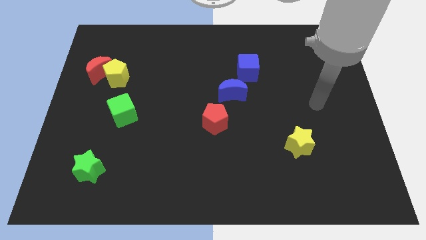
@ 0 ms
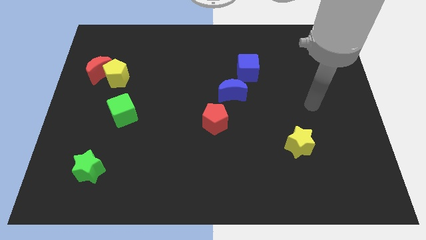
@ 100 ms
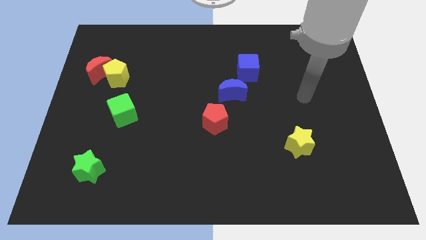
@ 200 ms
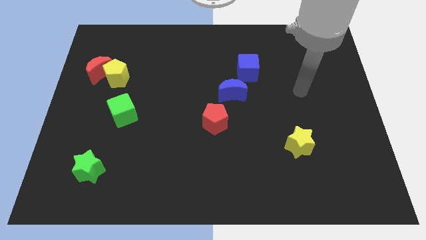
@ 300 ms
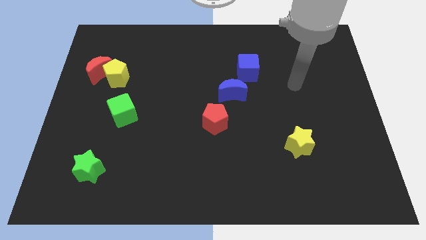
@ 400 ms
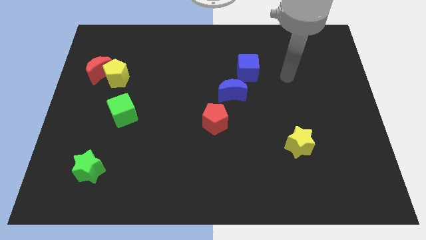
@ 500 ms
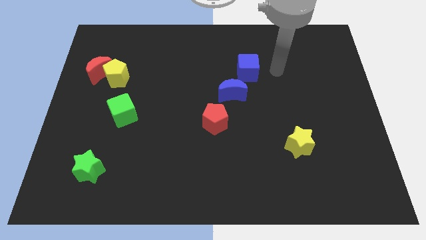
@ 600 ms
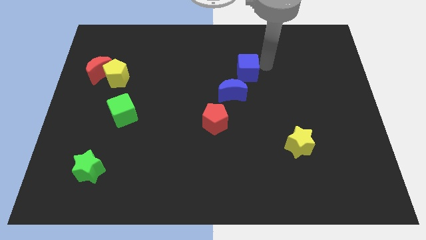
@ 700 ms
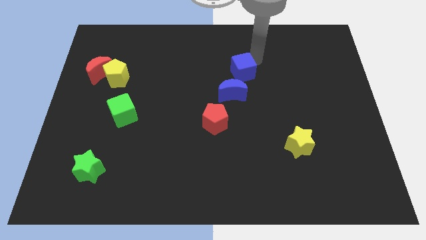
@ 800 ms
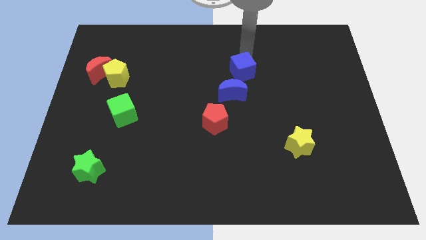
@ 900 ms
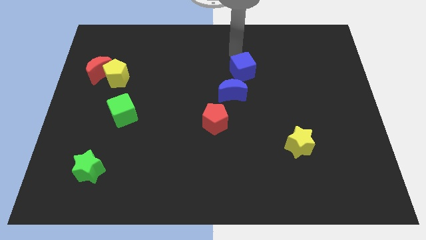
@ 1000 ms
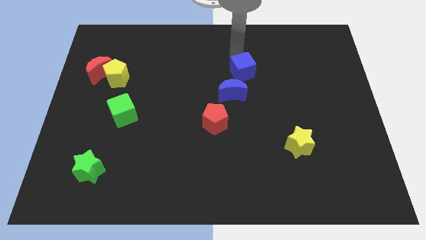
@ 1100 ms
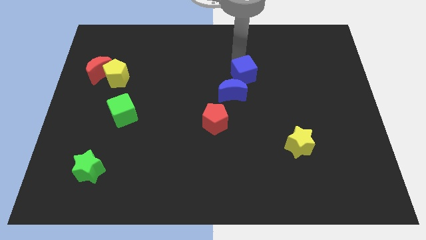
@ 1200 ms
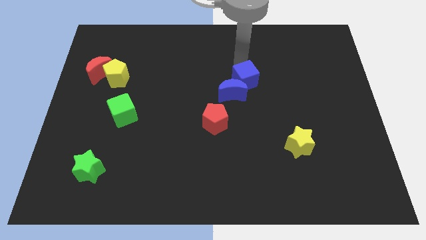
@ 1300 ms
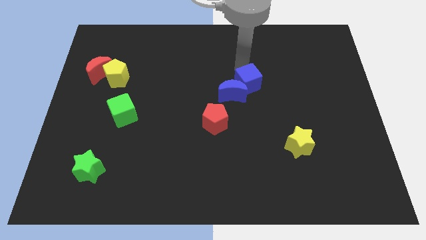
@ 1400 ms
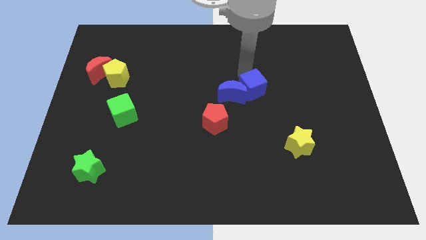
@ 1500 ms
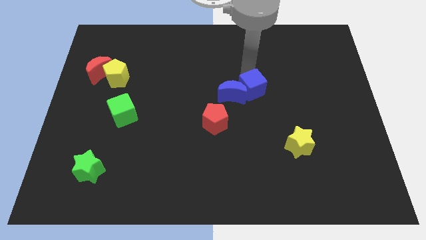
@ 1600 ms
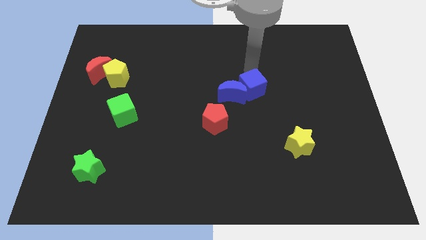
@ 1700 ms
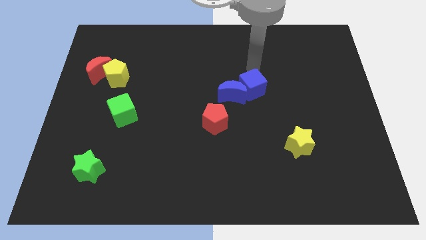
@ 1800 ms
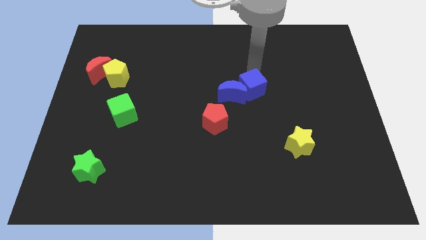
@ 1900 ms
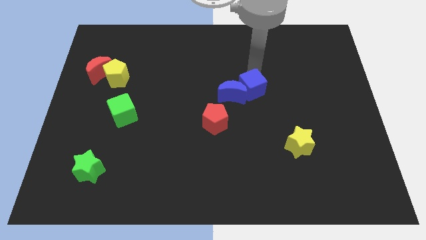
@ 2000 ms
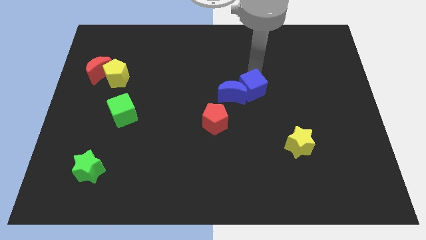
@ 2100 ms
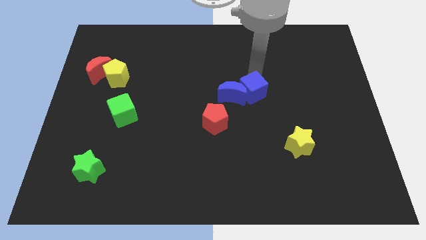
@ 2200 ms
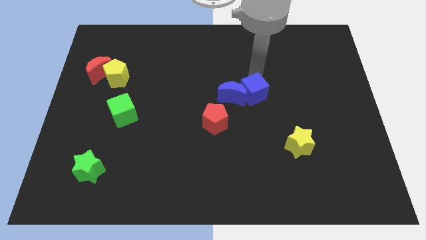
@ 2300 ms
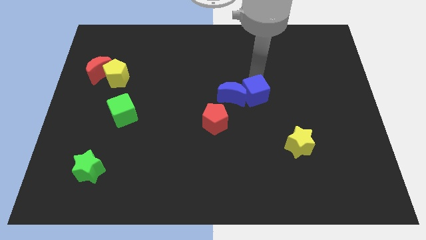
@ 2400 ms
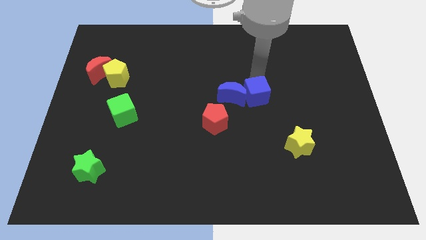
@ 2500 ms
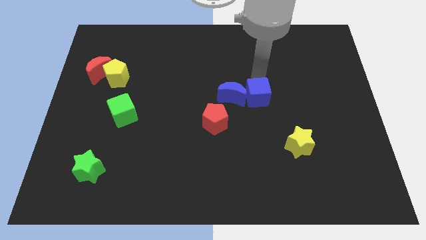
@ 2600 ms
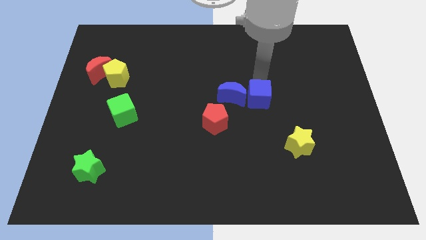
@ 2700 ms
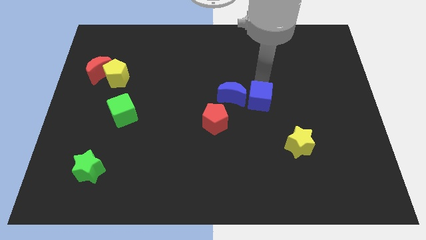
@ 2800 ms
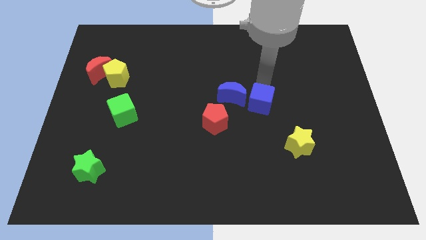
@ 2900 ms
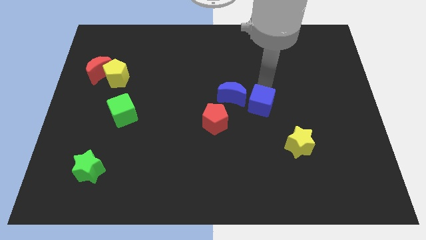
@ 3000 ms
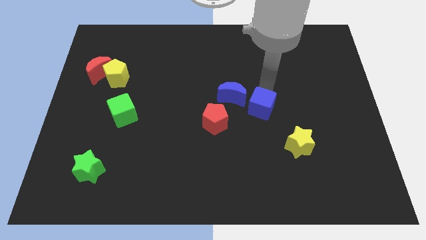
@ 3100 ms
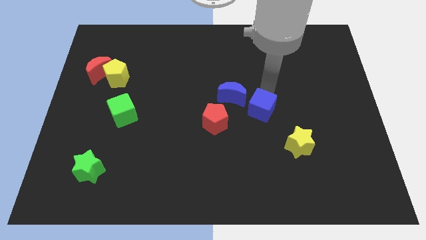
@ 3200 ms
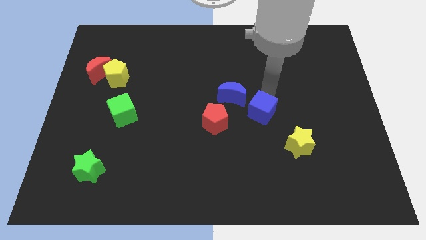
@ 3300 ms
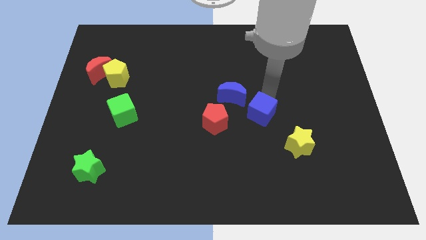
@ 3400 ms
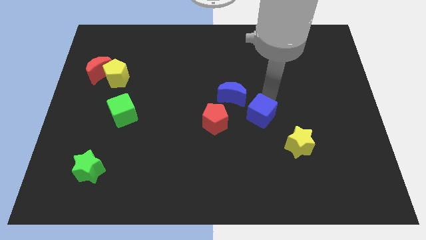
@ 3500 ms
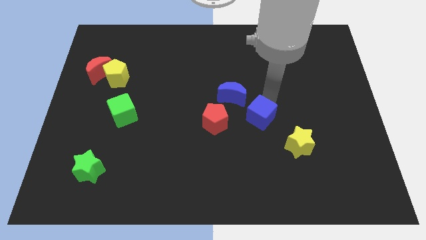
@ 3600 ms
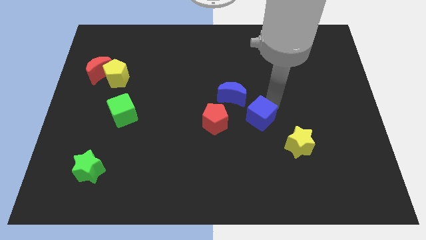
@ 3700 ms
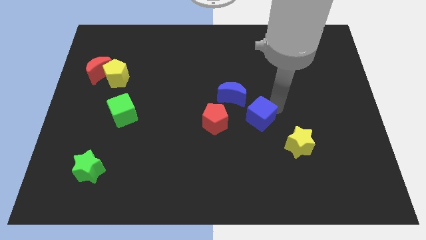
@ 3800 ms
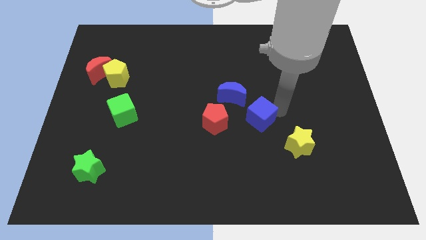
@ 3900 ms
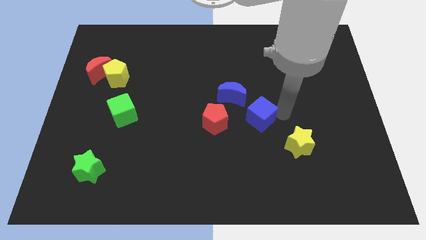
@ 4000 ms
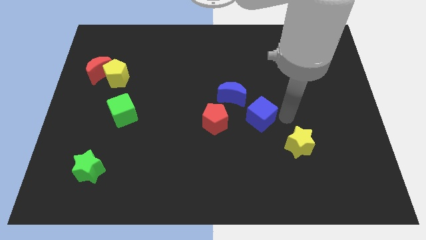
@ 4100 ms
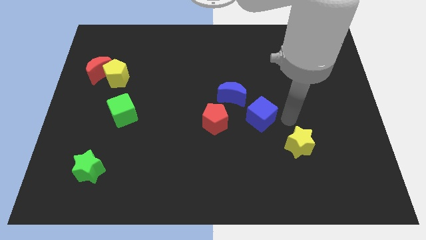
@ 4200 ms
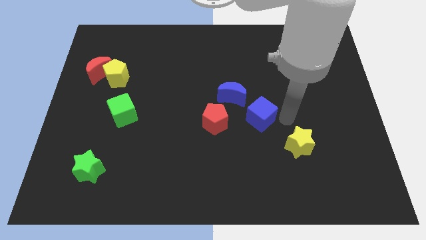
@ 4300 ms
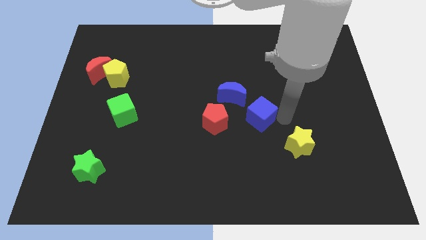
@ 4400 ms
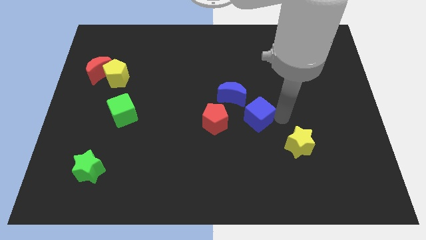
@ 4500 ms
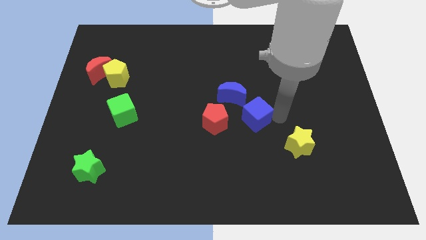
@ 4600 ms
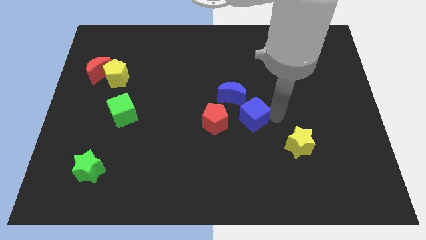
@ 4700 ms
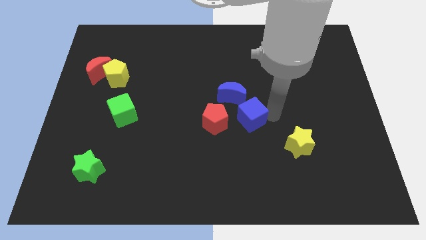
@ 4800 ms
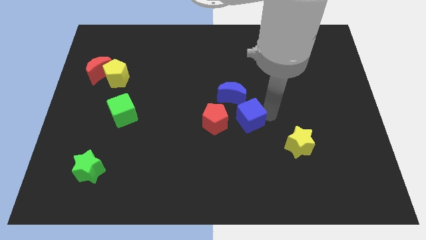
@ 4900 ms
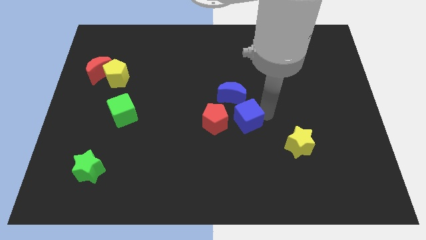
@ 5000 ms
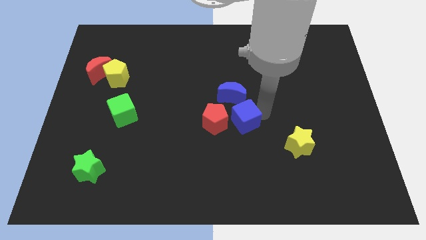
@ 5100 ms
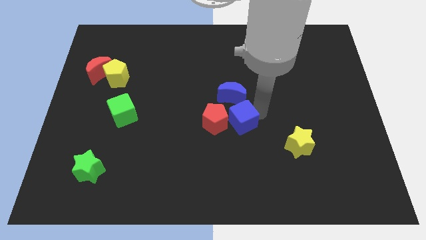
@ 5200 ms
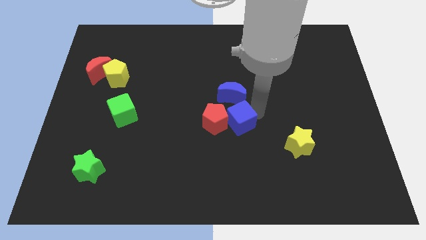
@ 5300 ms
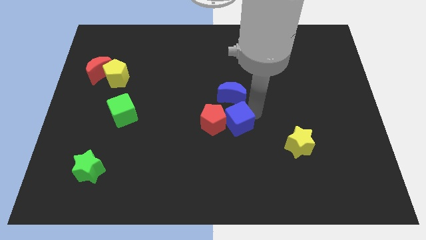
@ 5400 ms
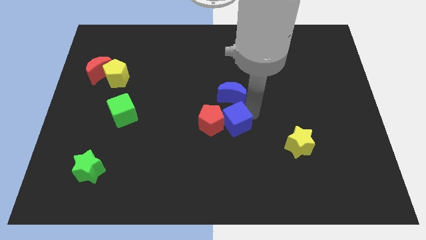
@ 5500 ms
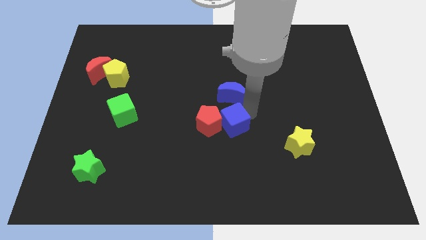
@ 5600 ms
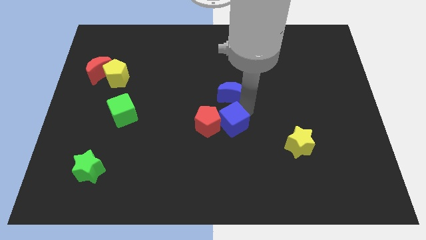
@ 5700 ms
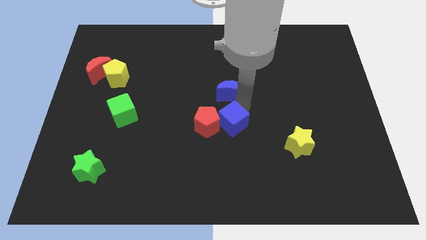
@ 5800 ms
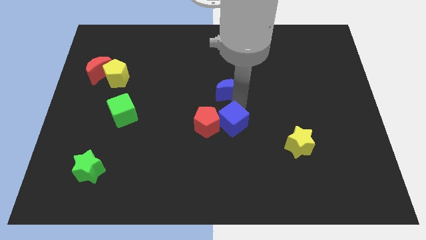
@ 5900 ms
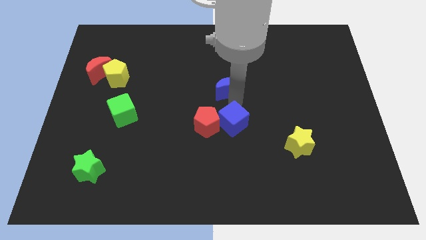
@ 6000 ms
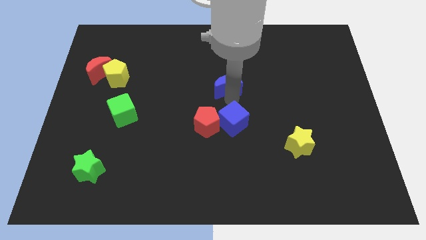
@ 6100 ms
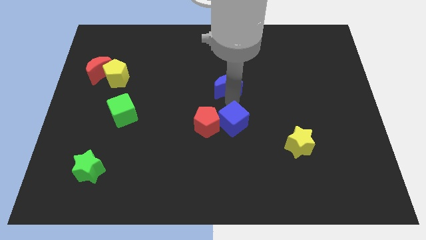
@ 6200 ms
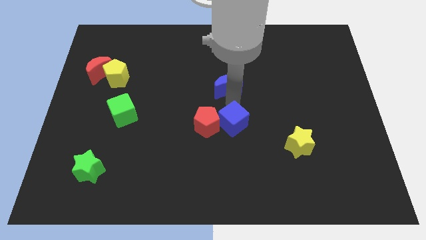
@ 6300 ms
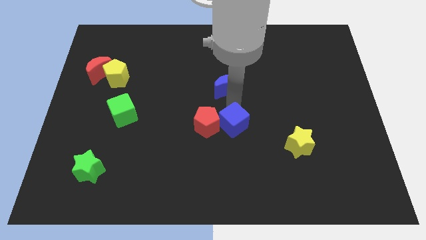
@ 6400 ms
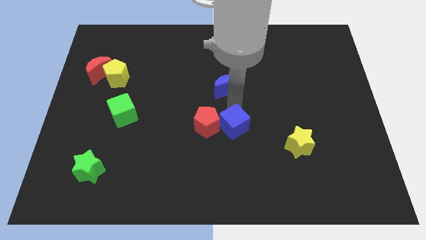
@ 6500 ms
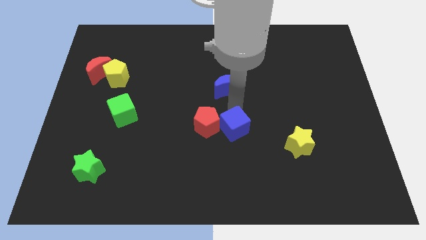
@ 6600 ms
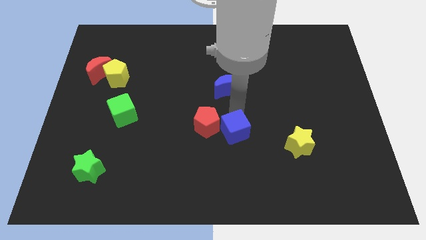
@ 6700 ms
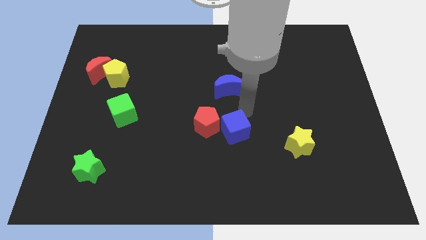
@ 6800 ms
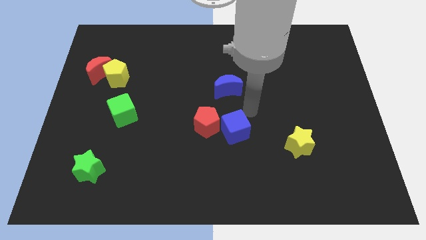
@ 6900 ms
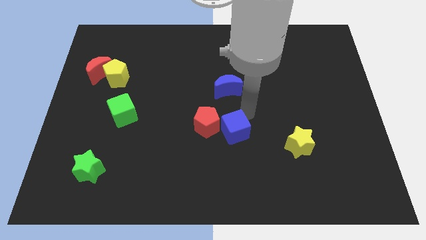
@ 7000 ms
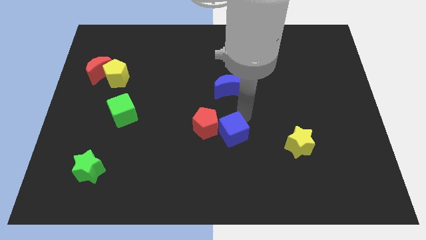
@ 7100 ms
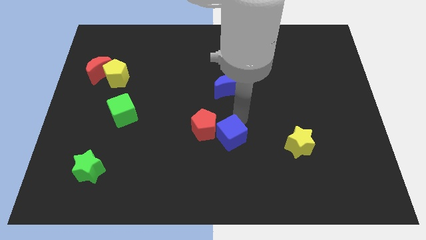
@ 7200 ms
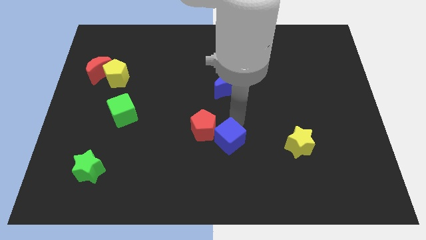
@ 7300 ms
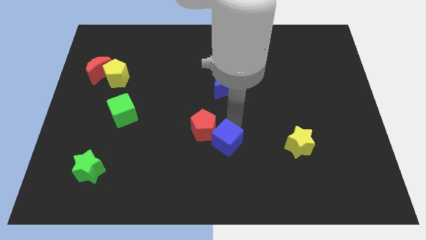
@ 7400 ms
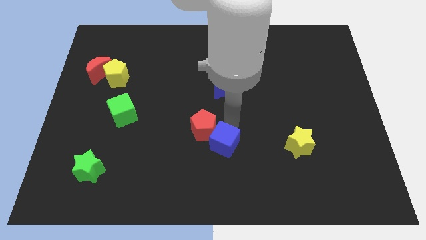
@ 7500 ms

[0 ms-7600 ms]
move the blue cube to the bottom side of the red pentagon

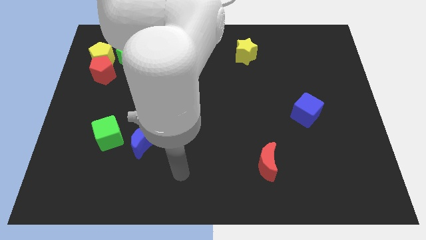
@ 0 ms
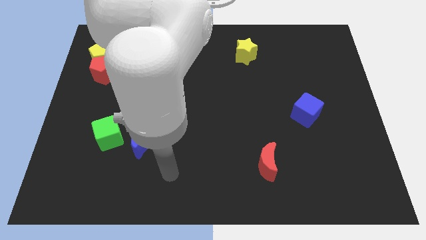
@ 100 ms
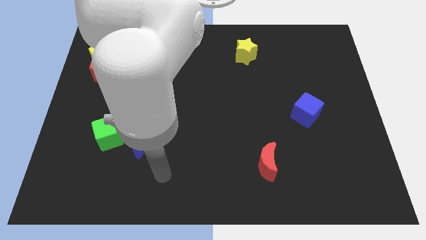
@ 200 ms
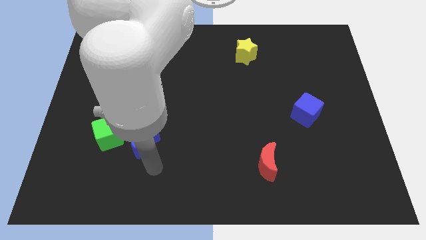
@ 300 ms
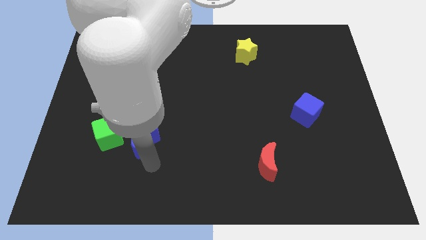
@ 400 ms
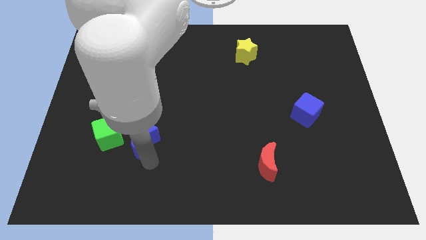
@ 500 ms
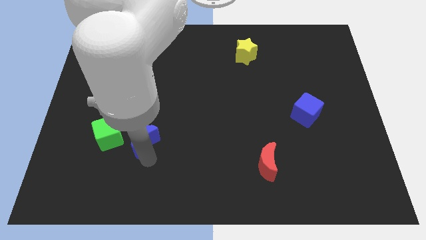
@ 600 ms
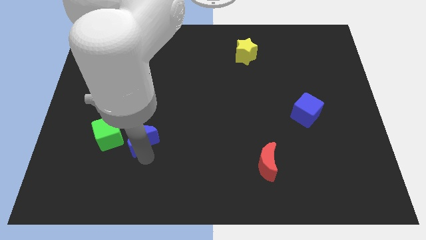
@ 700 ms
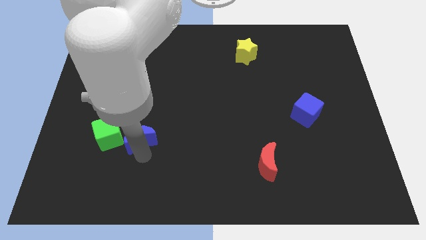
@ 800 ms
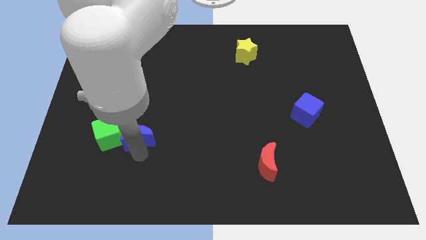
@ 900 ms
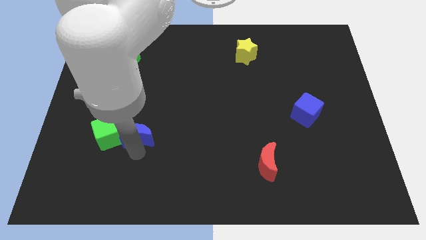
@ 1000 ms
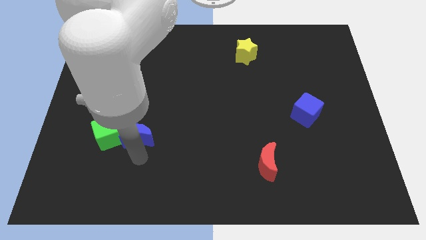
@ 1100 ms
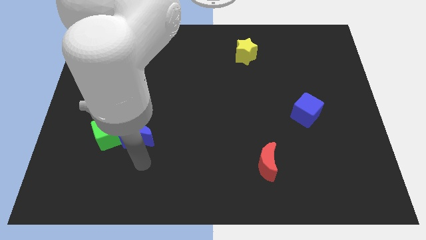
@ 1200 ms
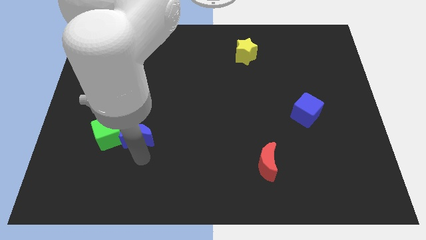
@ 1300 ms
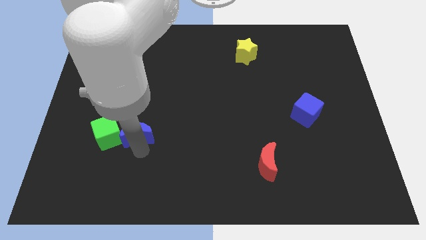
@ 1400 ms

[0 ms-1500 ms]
push the blue moon to the top right of the green cube
